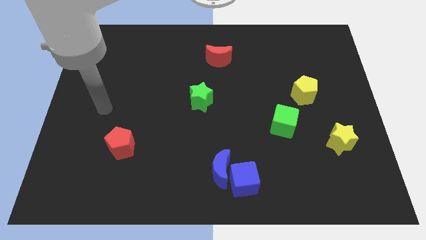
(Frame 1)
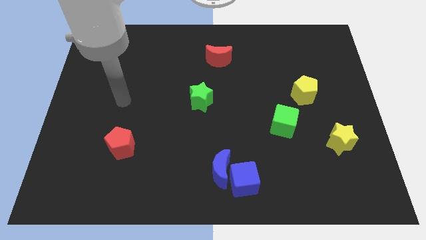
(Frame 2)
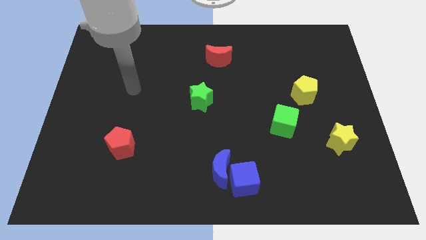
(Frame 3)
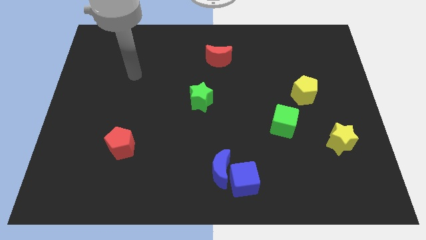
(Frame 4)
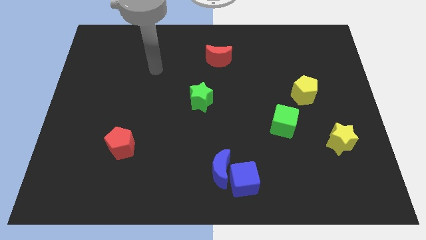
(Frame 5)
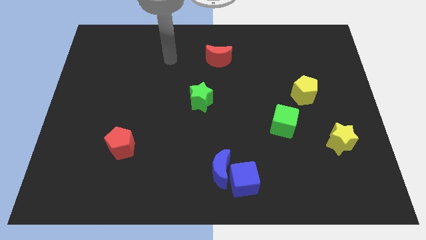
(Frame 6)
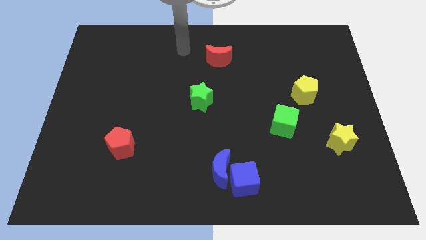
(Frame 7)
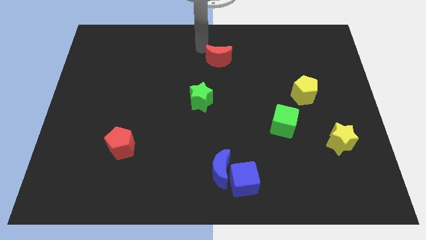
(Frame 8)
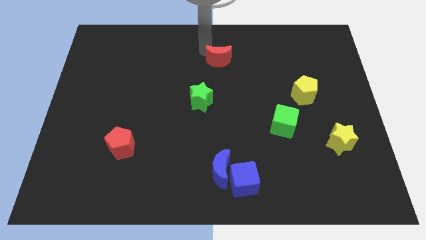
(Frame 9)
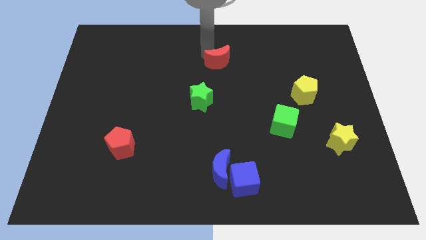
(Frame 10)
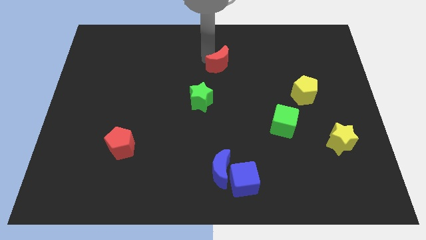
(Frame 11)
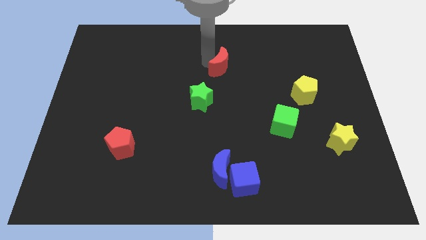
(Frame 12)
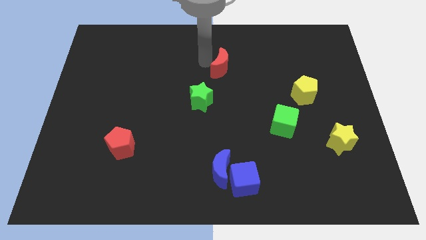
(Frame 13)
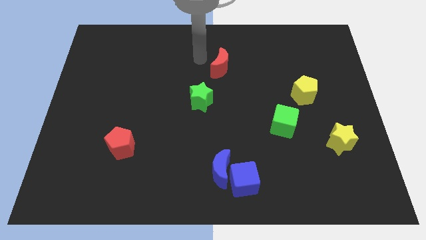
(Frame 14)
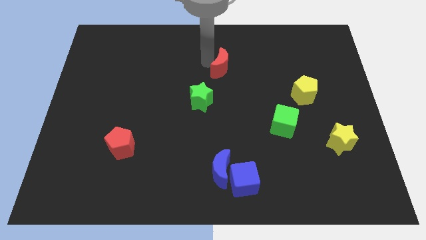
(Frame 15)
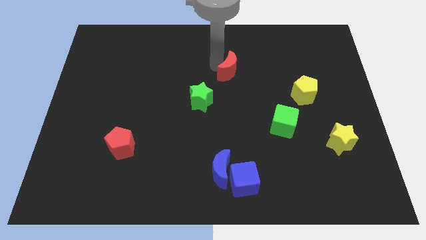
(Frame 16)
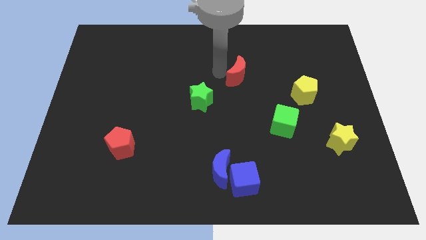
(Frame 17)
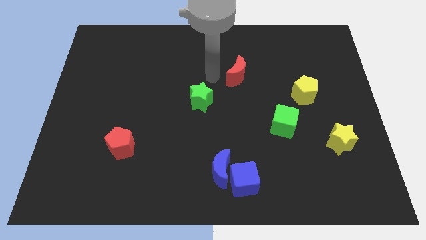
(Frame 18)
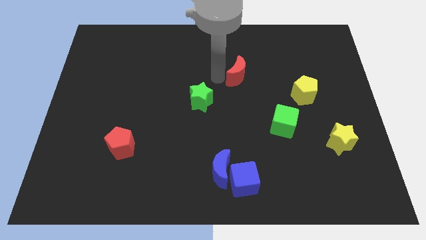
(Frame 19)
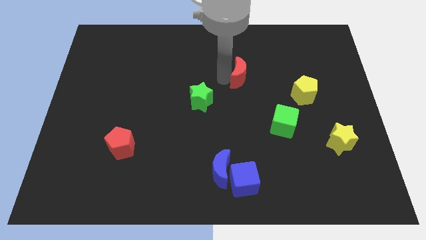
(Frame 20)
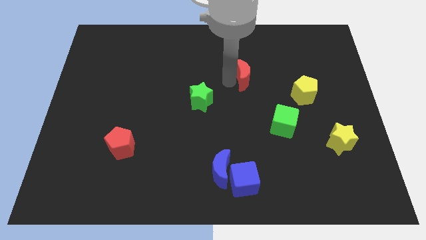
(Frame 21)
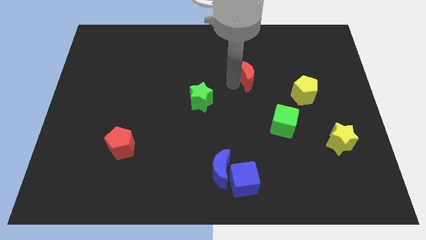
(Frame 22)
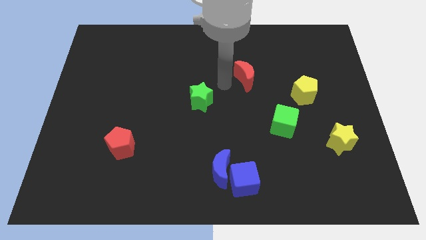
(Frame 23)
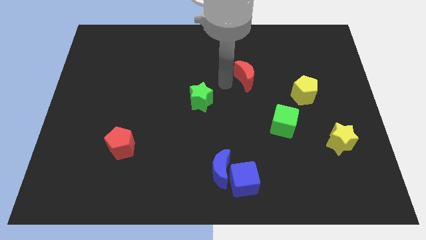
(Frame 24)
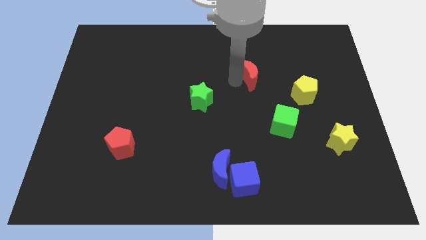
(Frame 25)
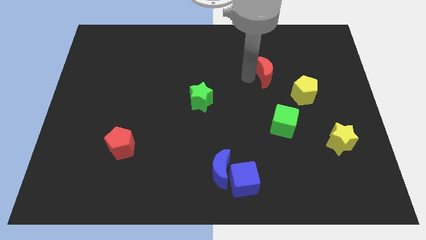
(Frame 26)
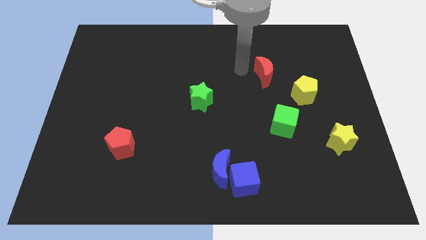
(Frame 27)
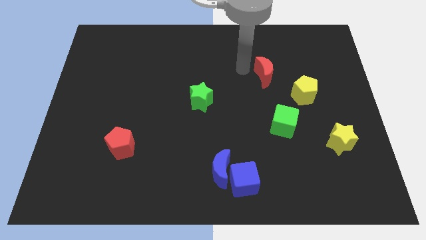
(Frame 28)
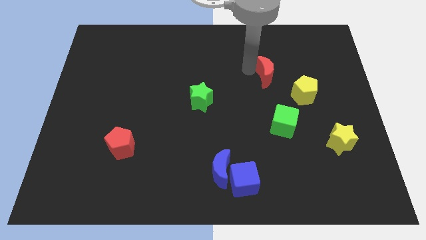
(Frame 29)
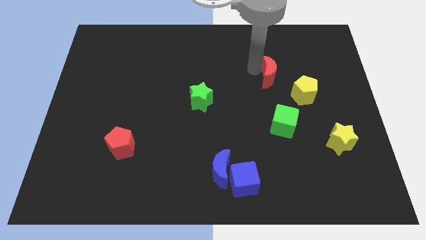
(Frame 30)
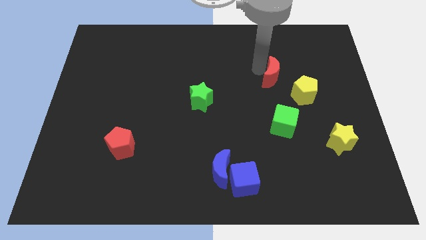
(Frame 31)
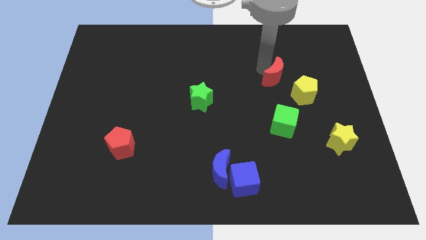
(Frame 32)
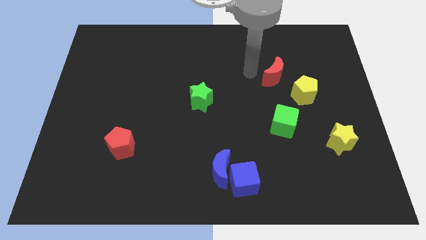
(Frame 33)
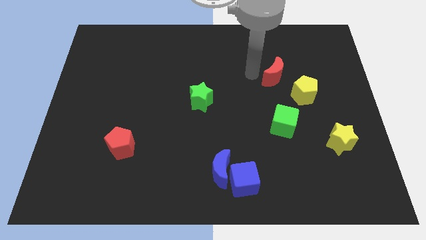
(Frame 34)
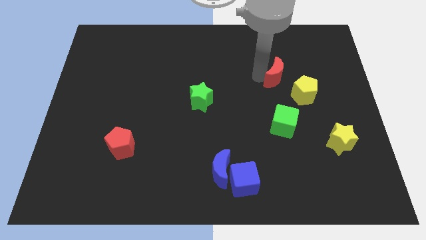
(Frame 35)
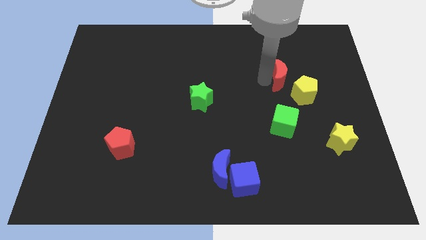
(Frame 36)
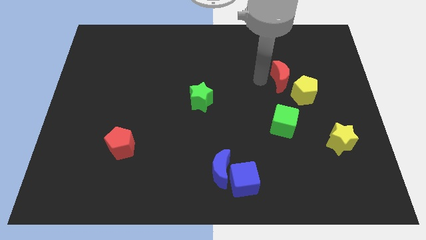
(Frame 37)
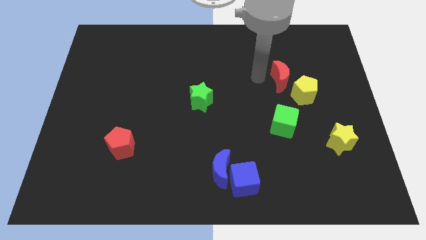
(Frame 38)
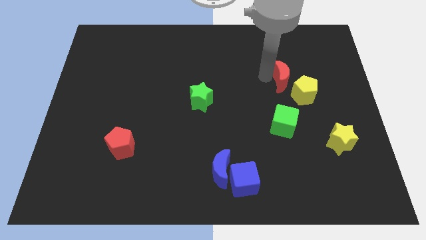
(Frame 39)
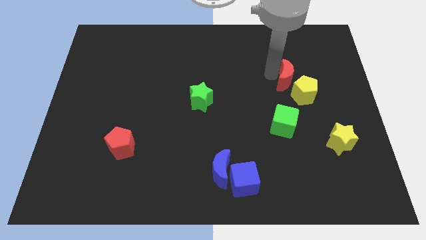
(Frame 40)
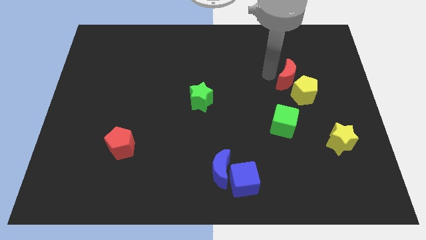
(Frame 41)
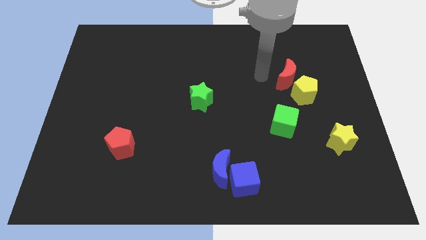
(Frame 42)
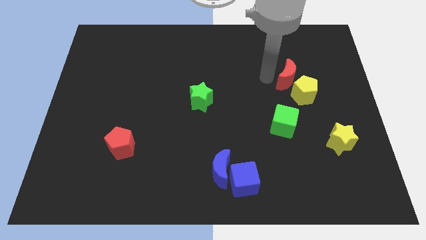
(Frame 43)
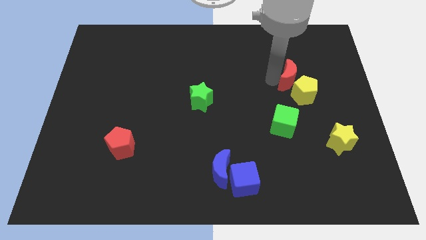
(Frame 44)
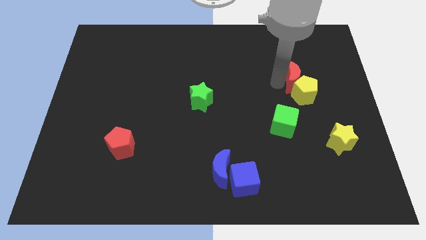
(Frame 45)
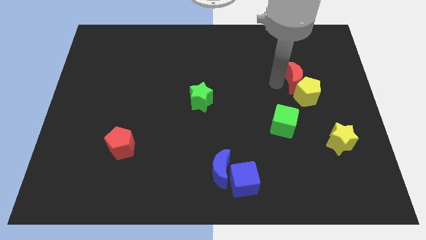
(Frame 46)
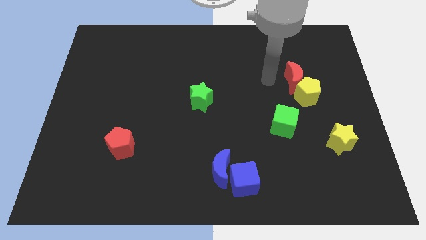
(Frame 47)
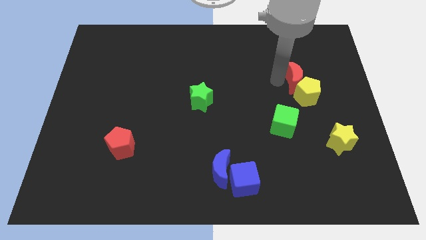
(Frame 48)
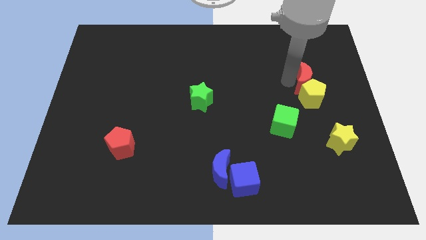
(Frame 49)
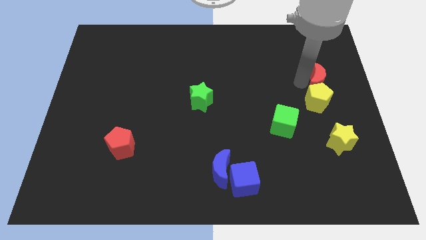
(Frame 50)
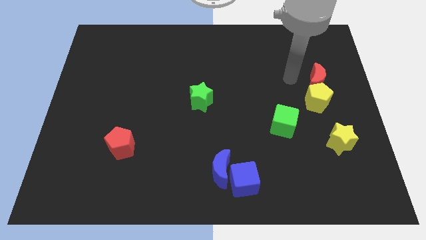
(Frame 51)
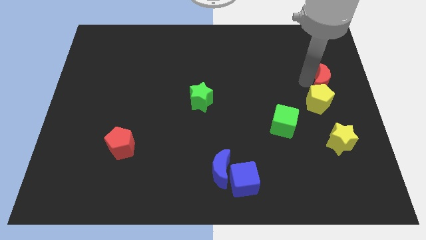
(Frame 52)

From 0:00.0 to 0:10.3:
put the red moon to the center right

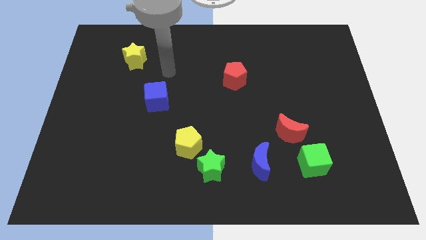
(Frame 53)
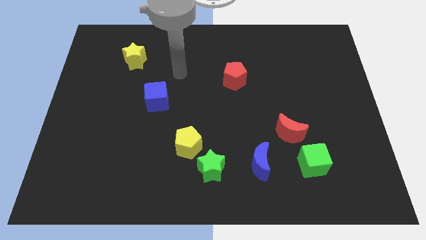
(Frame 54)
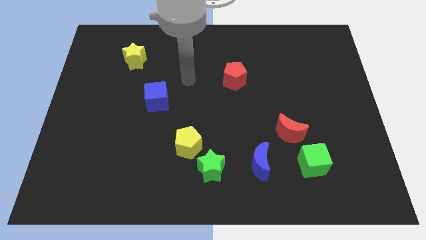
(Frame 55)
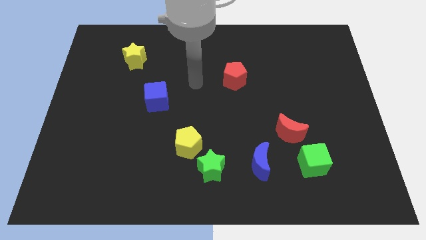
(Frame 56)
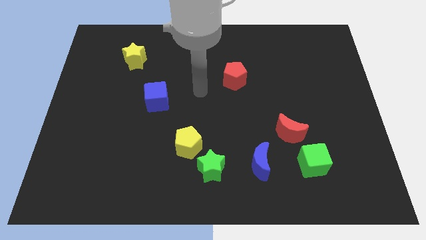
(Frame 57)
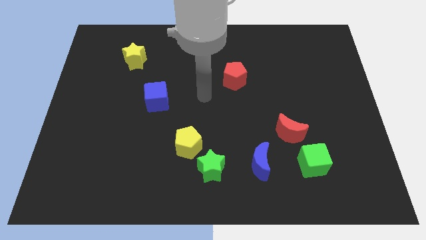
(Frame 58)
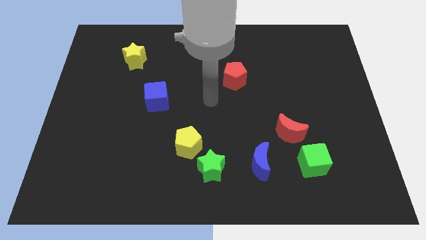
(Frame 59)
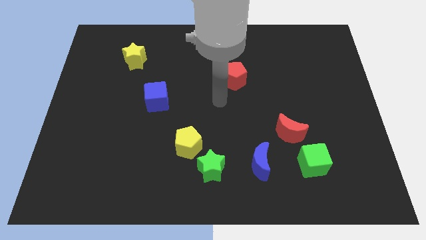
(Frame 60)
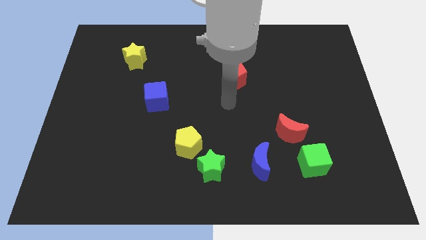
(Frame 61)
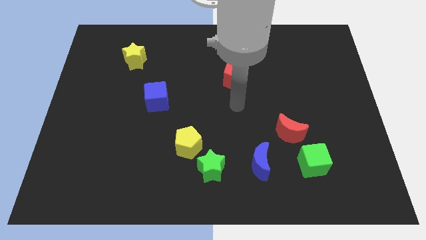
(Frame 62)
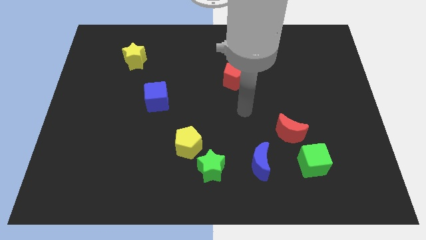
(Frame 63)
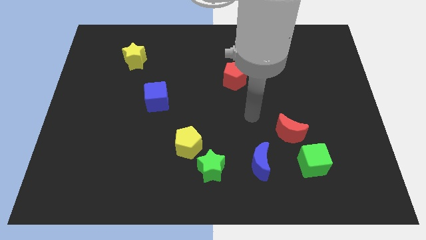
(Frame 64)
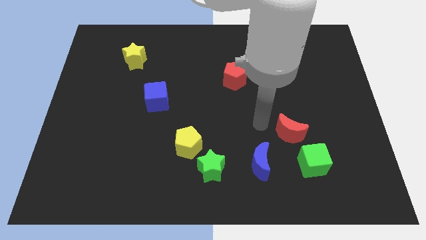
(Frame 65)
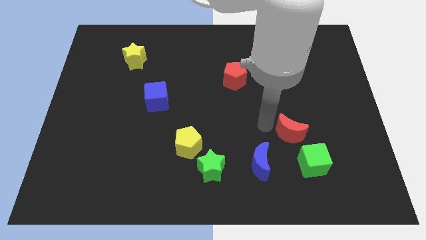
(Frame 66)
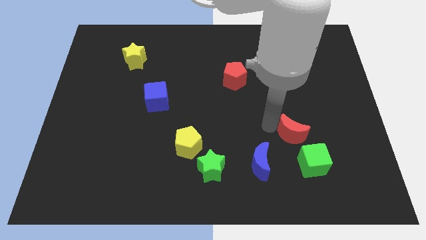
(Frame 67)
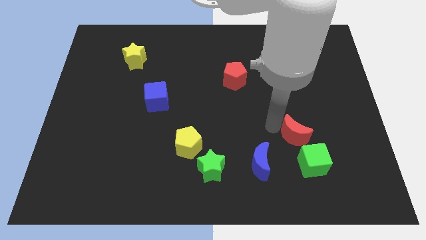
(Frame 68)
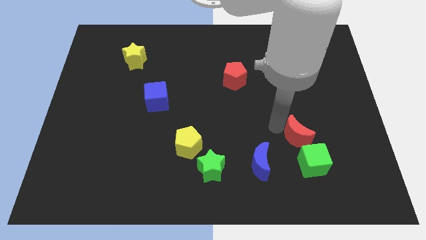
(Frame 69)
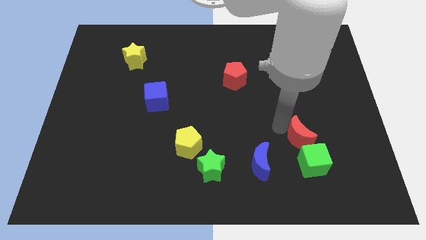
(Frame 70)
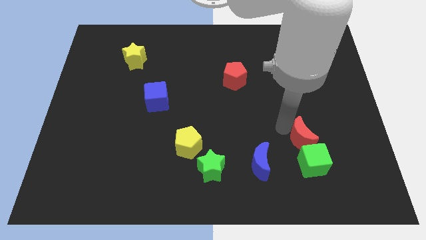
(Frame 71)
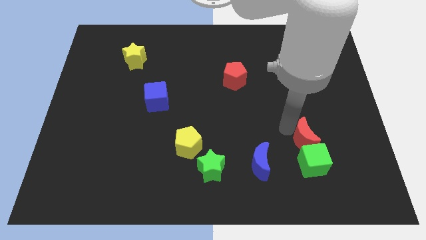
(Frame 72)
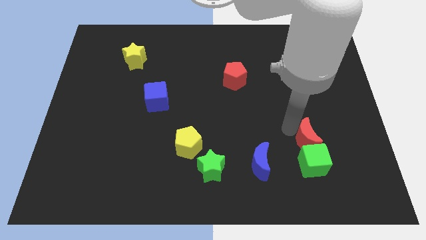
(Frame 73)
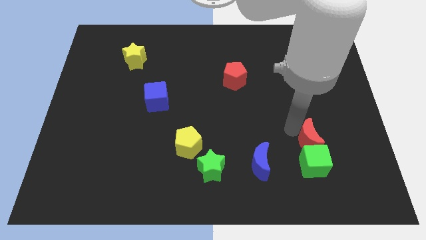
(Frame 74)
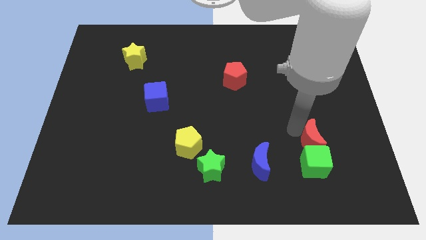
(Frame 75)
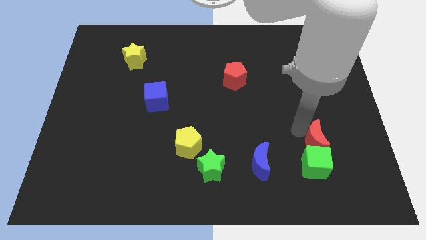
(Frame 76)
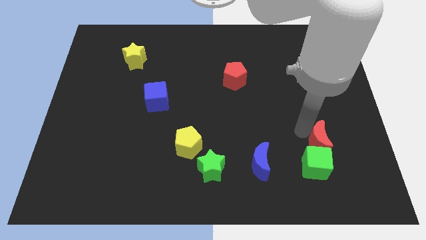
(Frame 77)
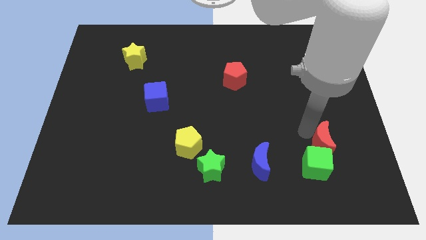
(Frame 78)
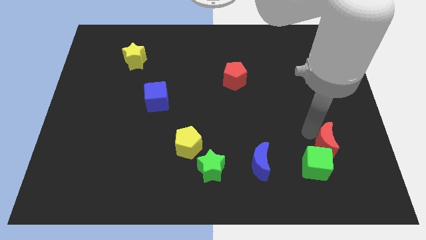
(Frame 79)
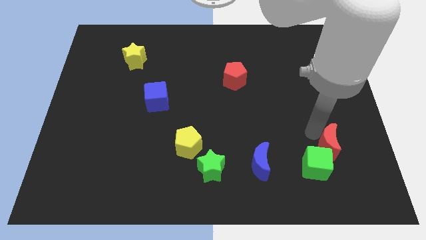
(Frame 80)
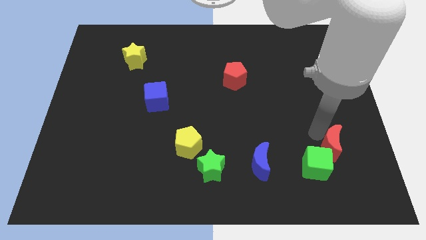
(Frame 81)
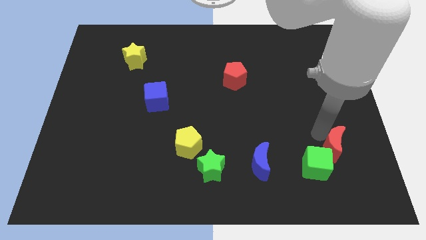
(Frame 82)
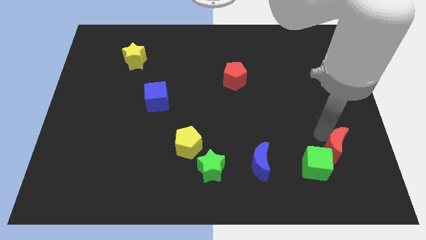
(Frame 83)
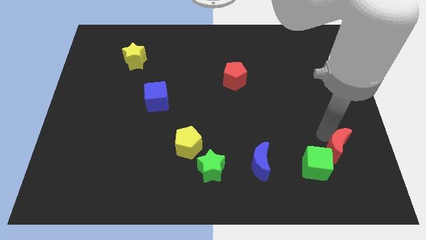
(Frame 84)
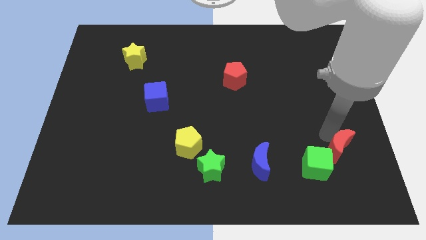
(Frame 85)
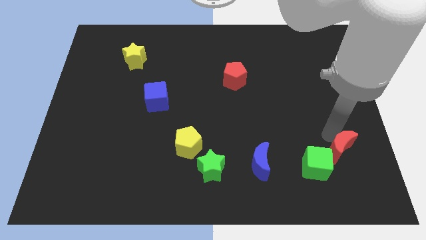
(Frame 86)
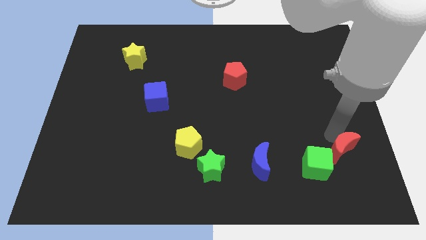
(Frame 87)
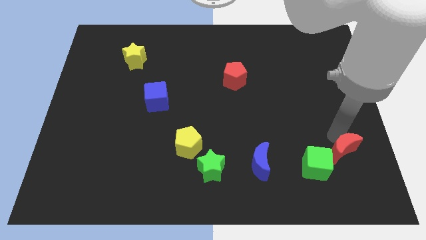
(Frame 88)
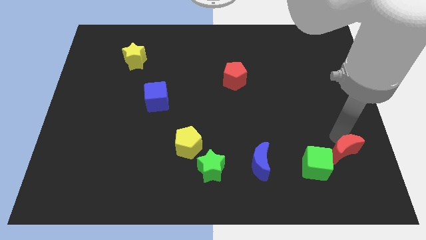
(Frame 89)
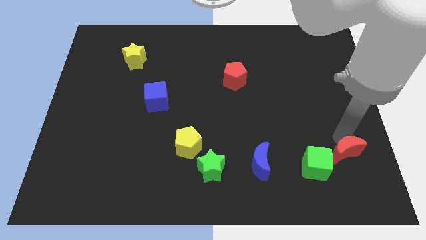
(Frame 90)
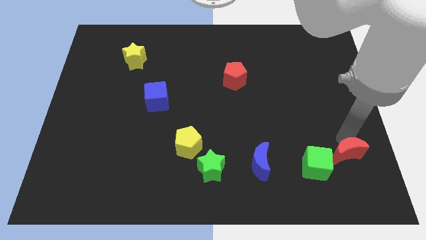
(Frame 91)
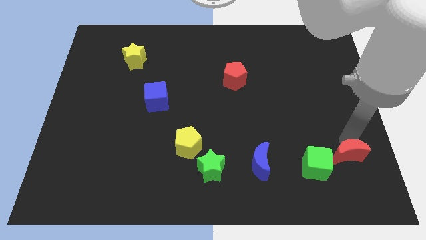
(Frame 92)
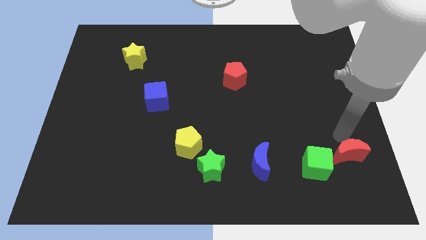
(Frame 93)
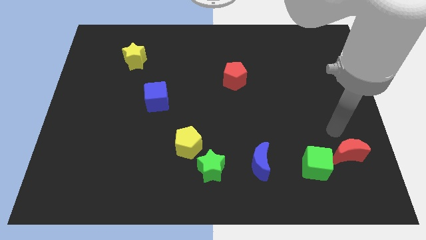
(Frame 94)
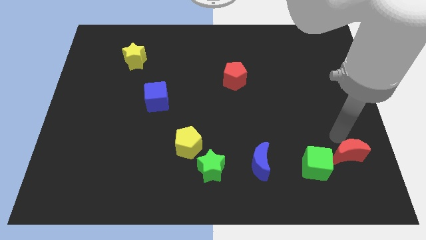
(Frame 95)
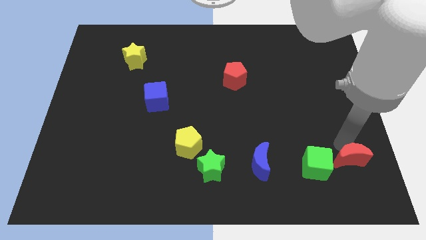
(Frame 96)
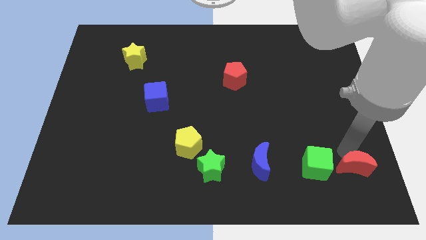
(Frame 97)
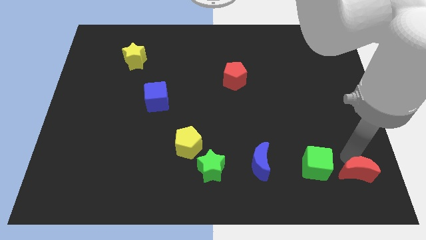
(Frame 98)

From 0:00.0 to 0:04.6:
move the red moon to the bottom right
